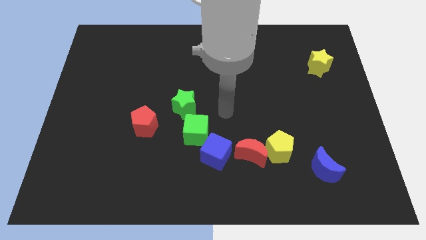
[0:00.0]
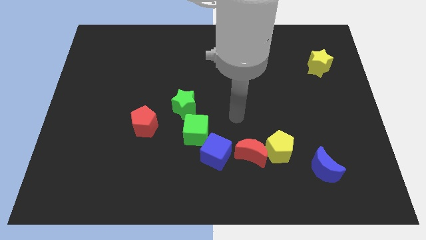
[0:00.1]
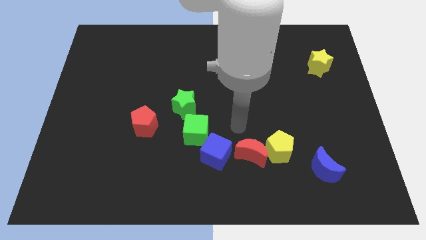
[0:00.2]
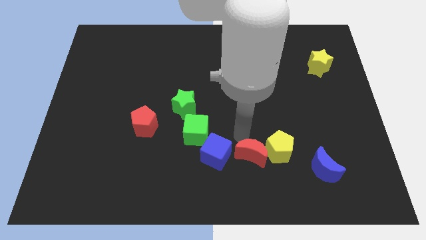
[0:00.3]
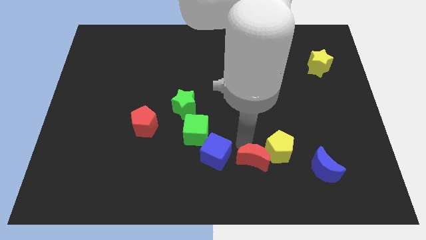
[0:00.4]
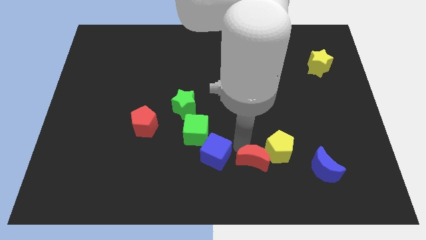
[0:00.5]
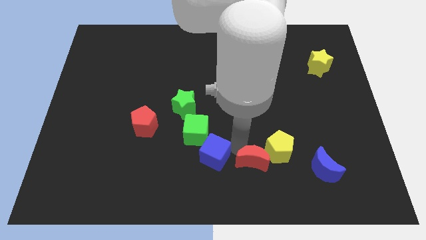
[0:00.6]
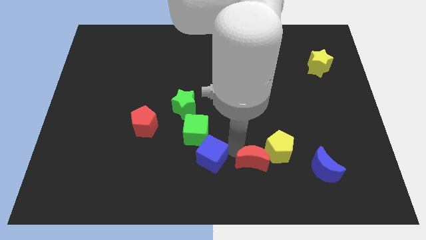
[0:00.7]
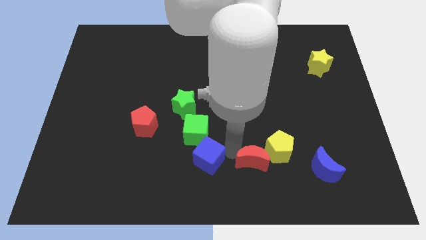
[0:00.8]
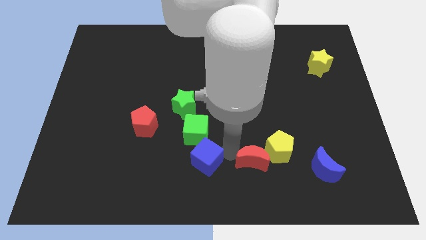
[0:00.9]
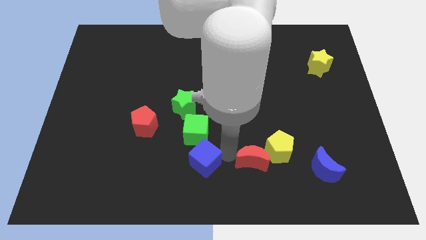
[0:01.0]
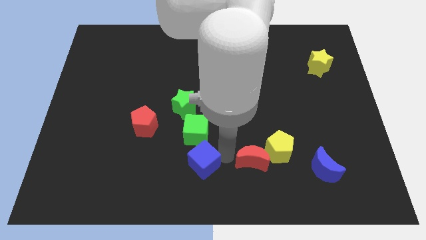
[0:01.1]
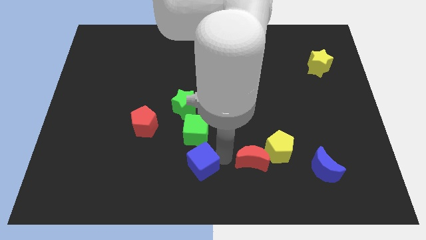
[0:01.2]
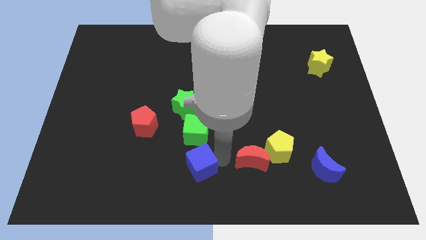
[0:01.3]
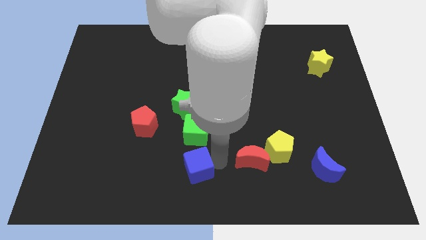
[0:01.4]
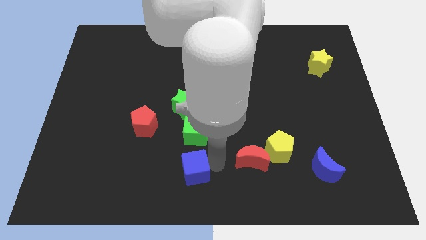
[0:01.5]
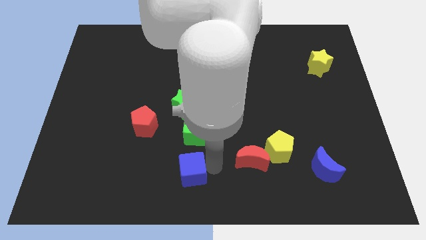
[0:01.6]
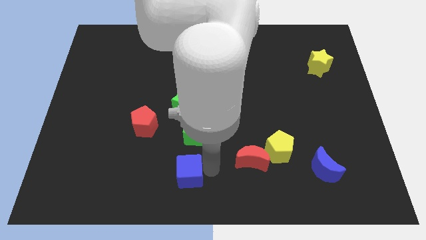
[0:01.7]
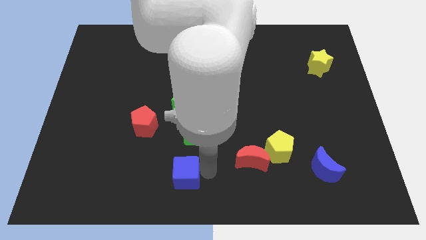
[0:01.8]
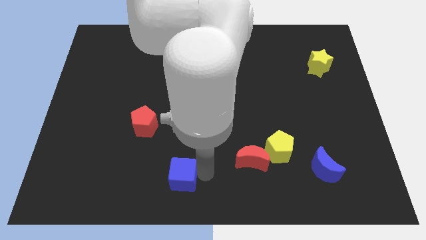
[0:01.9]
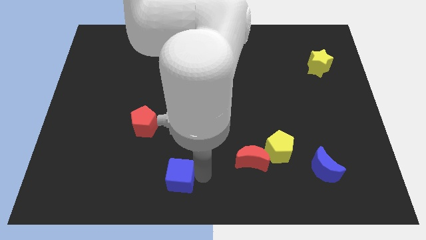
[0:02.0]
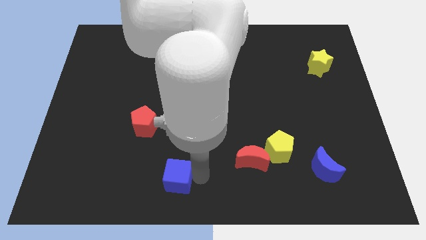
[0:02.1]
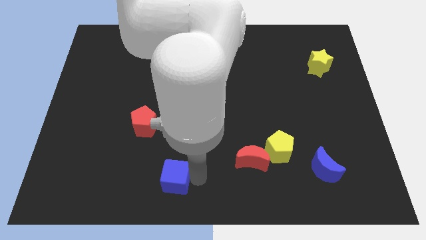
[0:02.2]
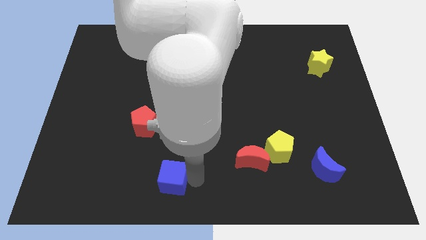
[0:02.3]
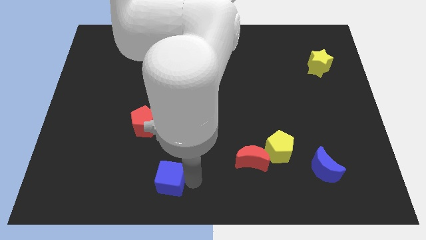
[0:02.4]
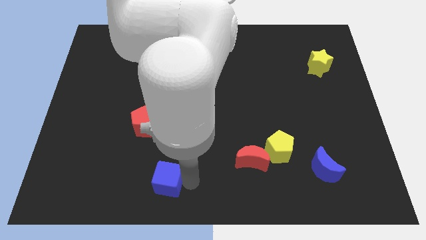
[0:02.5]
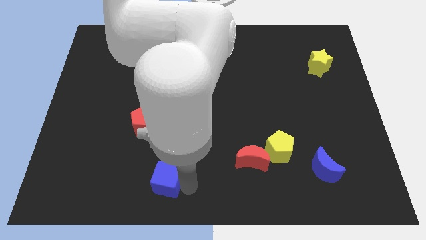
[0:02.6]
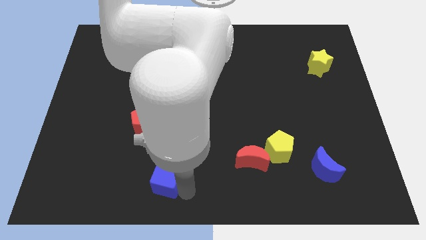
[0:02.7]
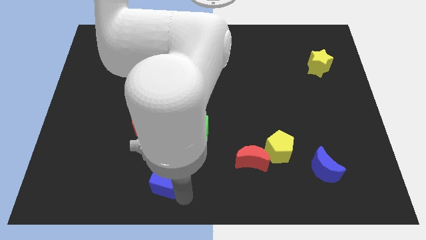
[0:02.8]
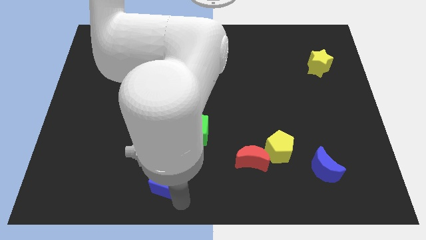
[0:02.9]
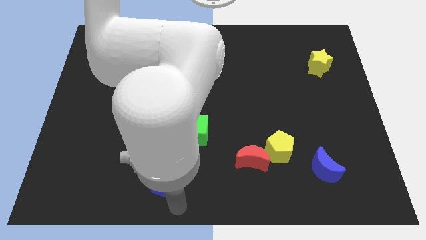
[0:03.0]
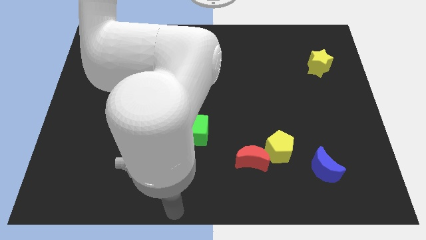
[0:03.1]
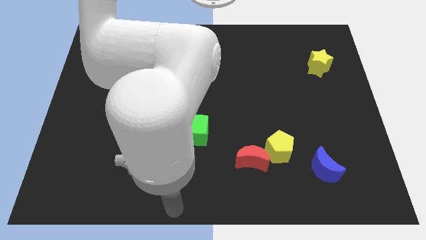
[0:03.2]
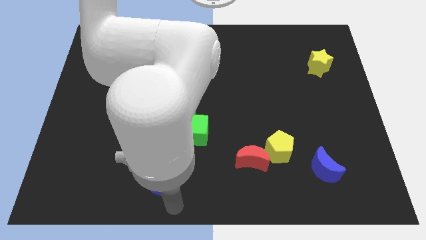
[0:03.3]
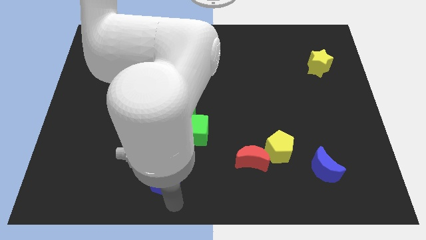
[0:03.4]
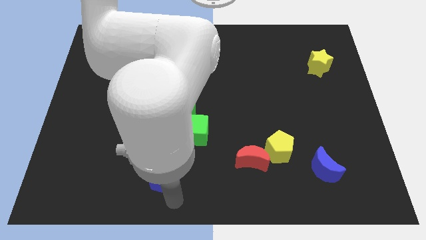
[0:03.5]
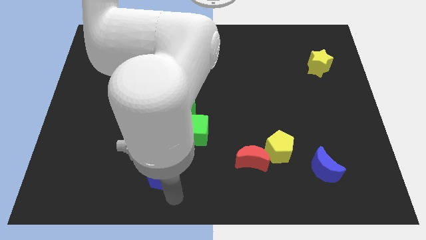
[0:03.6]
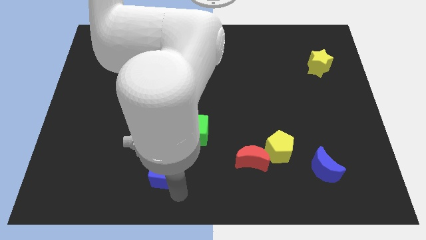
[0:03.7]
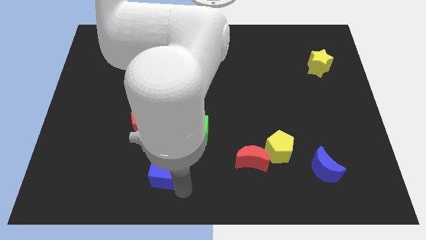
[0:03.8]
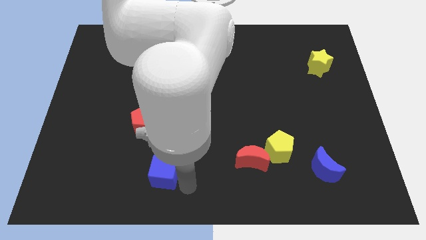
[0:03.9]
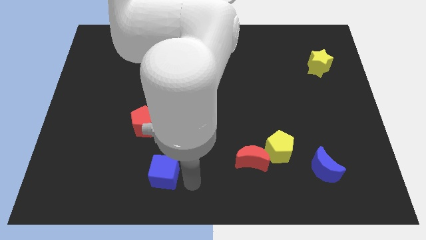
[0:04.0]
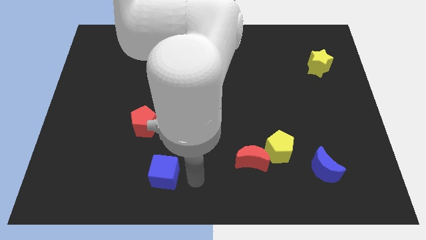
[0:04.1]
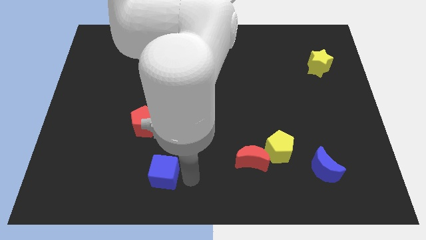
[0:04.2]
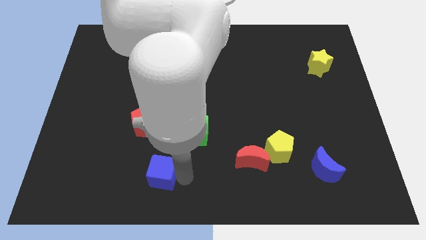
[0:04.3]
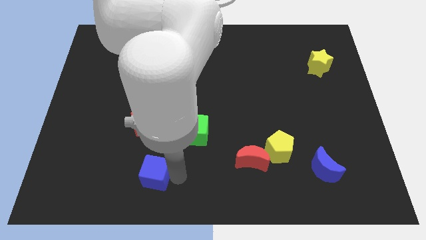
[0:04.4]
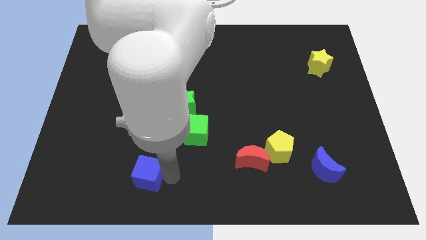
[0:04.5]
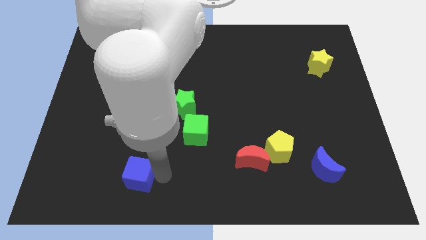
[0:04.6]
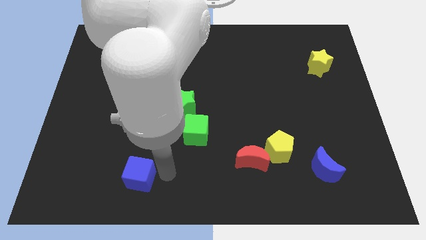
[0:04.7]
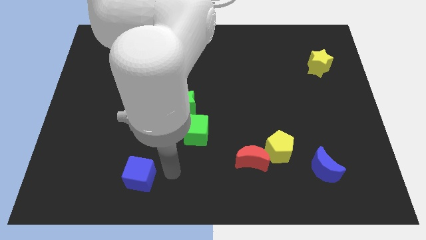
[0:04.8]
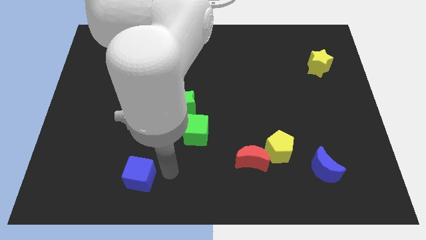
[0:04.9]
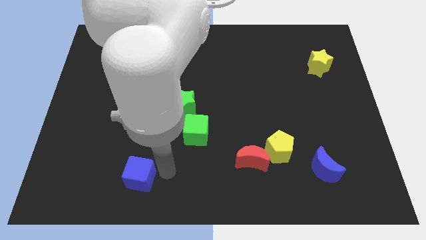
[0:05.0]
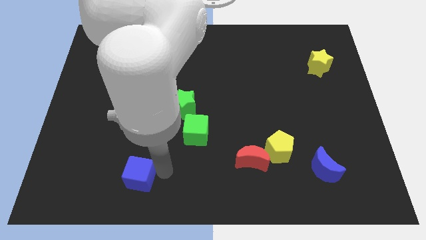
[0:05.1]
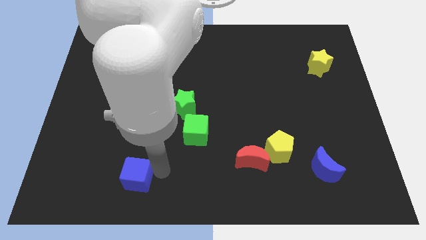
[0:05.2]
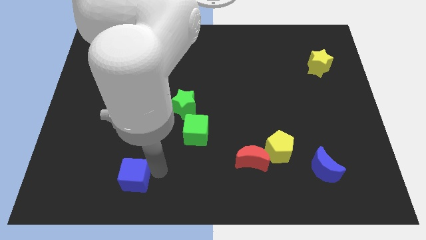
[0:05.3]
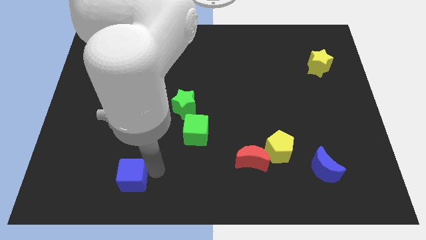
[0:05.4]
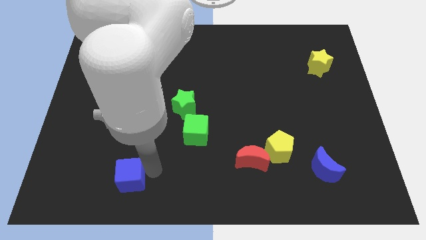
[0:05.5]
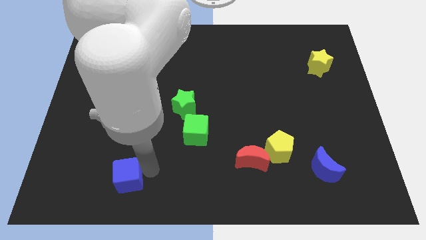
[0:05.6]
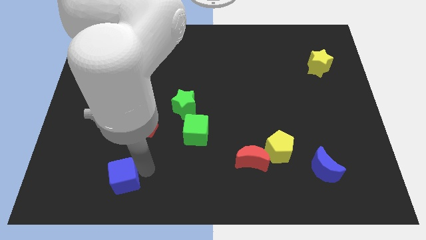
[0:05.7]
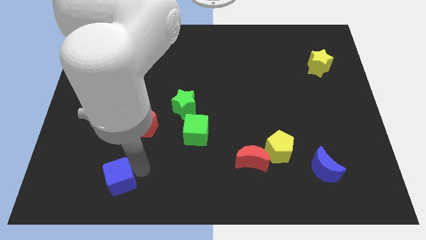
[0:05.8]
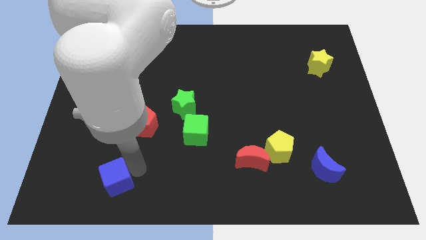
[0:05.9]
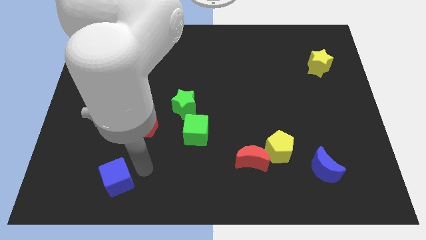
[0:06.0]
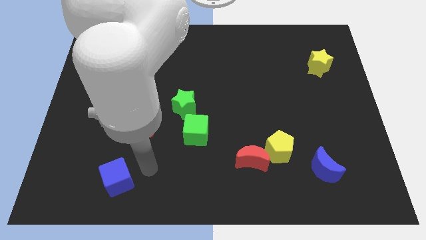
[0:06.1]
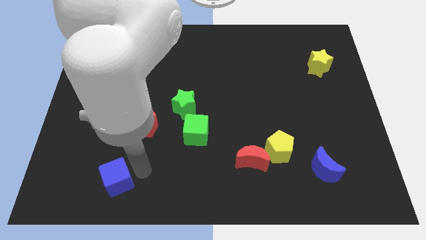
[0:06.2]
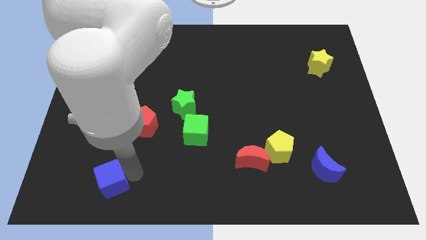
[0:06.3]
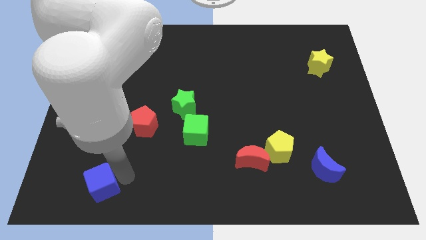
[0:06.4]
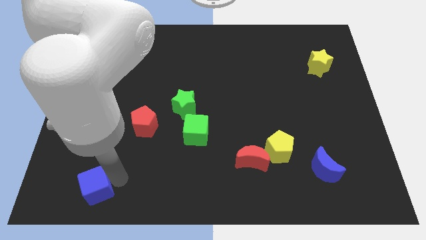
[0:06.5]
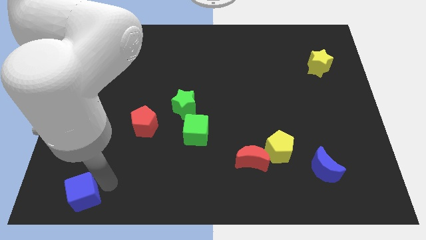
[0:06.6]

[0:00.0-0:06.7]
push the blue cube to the bottom left
